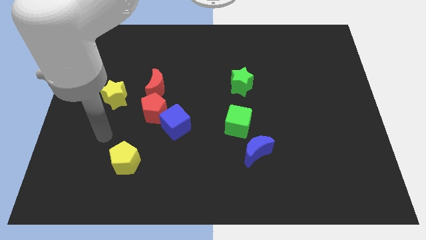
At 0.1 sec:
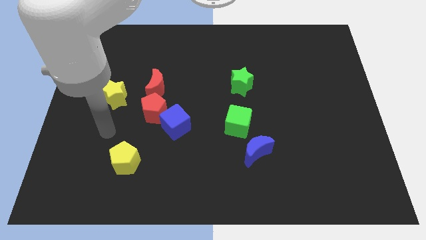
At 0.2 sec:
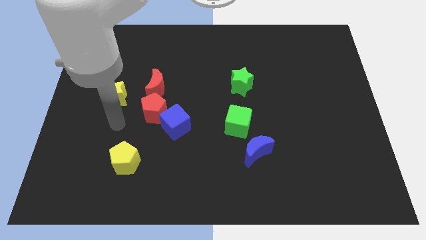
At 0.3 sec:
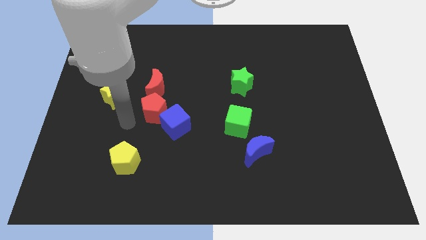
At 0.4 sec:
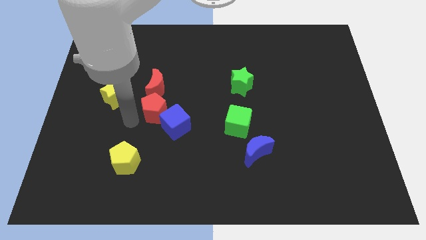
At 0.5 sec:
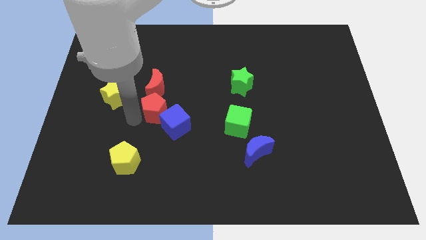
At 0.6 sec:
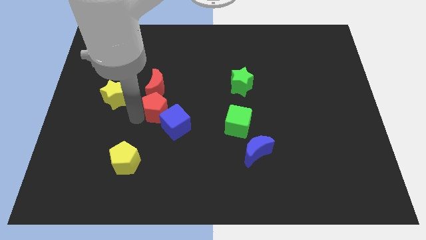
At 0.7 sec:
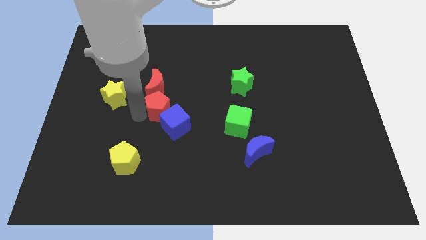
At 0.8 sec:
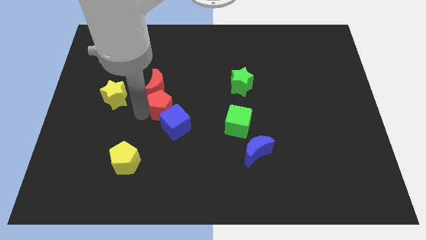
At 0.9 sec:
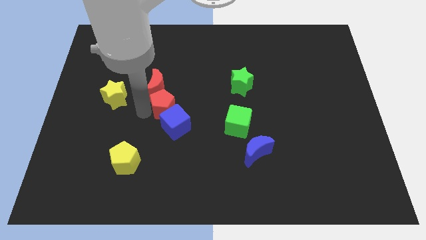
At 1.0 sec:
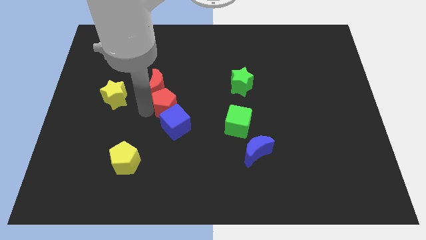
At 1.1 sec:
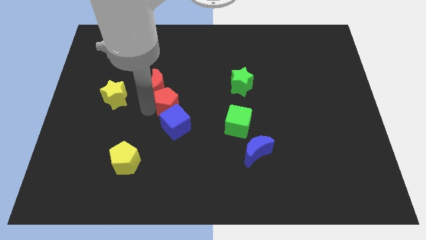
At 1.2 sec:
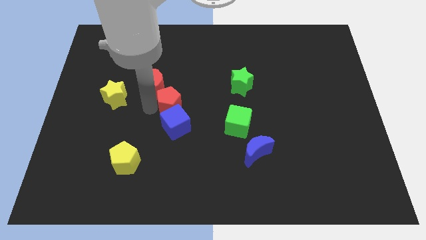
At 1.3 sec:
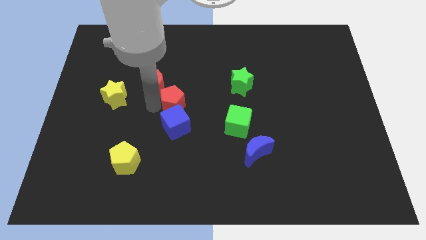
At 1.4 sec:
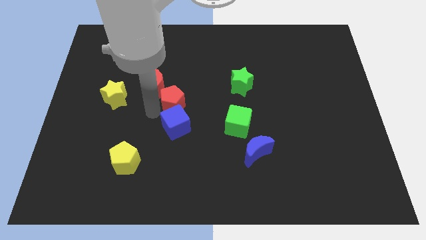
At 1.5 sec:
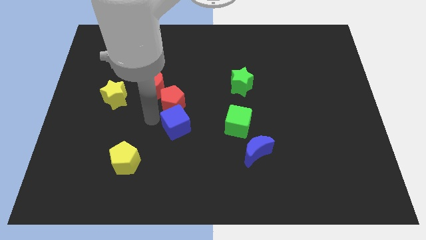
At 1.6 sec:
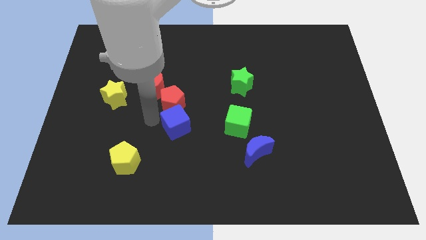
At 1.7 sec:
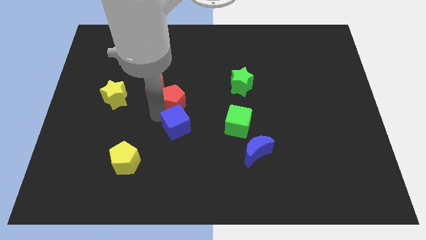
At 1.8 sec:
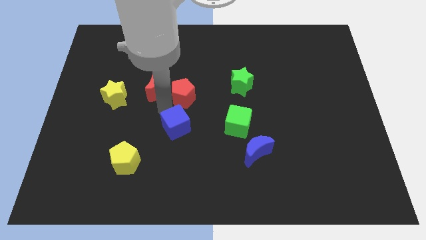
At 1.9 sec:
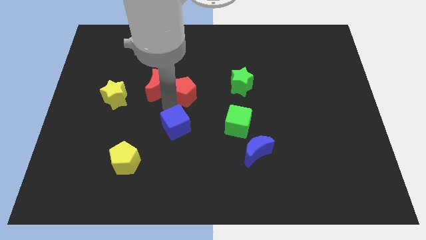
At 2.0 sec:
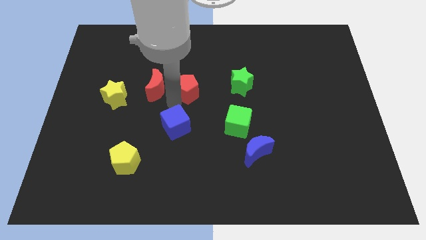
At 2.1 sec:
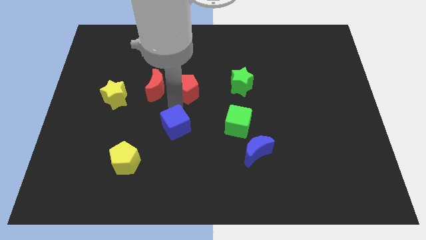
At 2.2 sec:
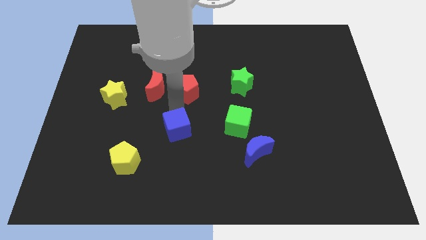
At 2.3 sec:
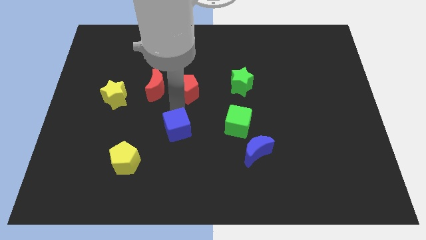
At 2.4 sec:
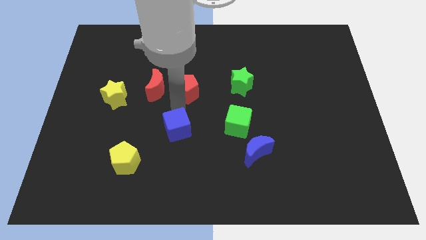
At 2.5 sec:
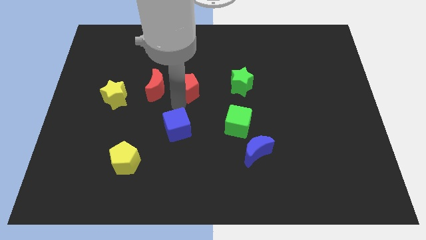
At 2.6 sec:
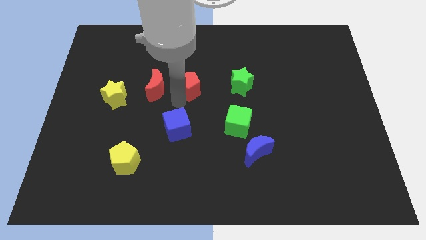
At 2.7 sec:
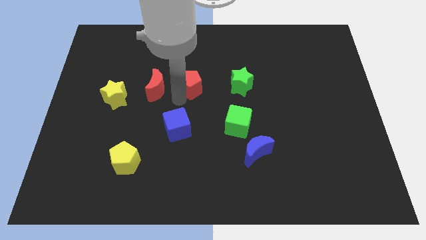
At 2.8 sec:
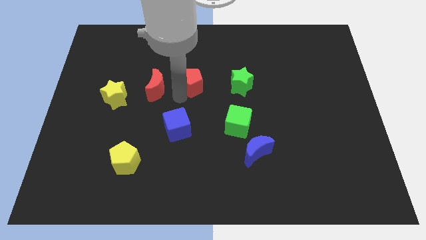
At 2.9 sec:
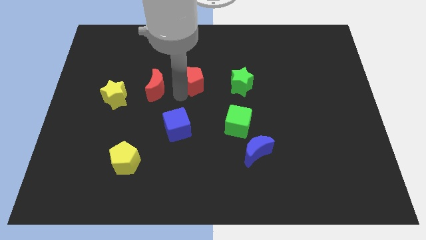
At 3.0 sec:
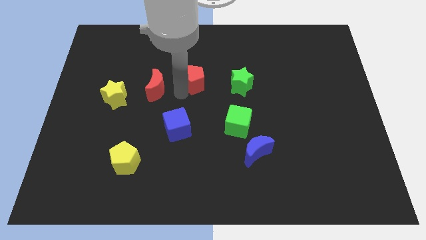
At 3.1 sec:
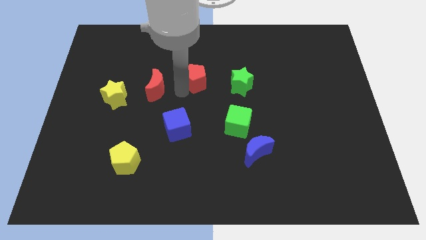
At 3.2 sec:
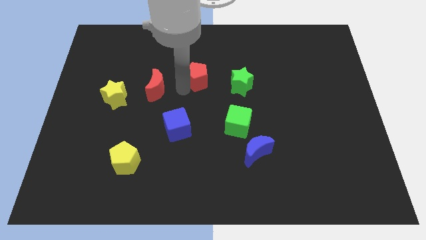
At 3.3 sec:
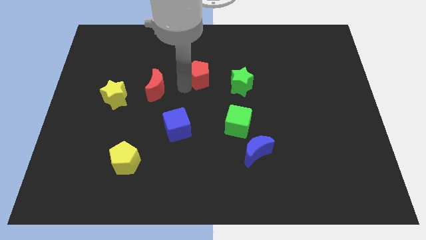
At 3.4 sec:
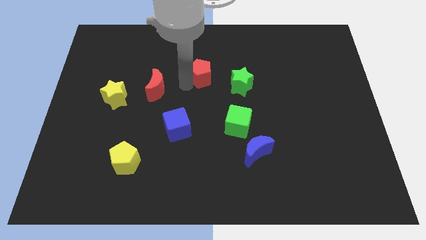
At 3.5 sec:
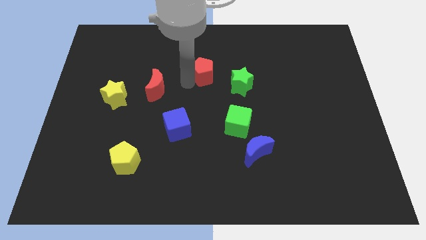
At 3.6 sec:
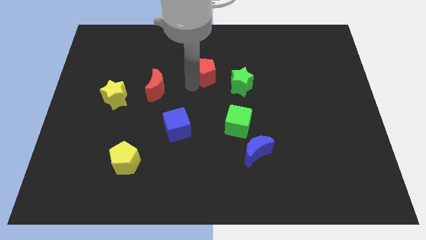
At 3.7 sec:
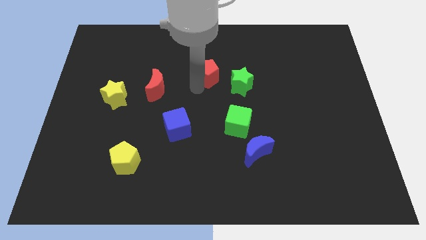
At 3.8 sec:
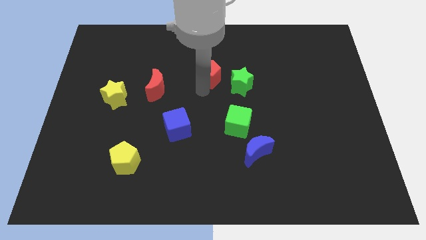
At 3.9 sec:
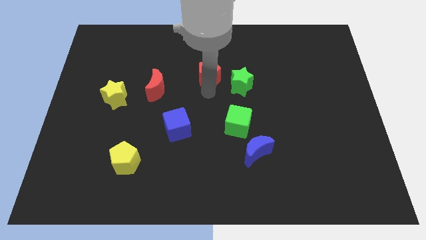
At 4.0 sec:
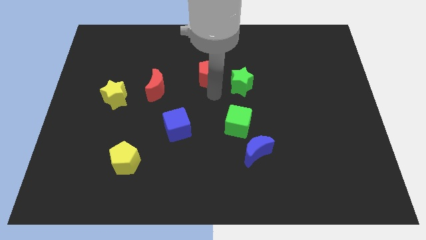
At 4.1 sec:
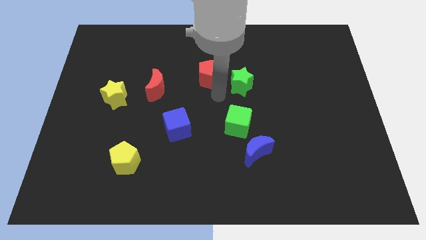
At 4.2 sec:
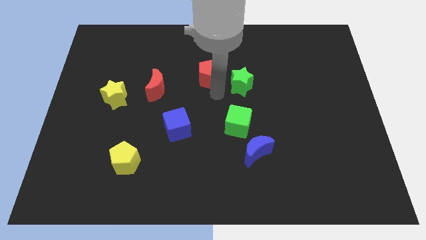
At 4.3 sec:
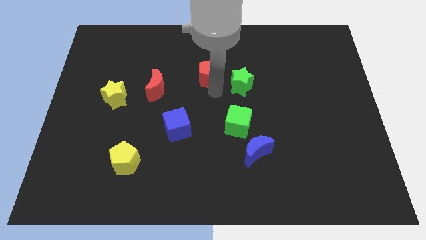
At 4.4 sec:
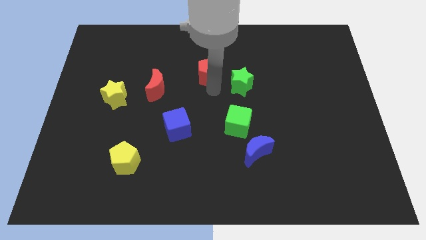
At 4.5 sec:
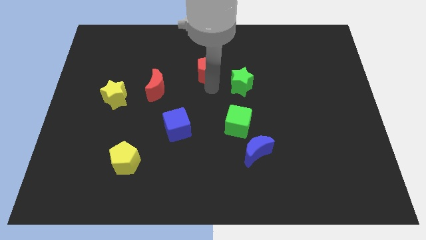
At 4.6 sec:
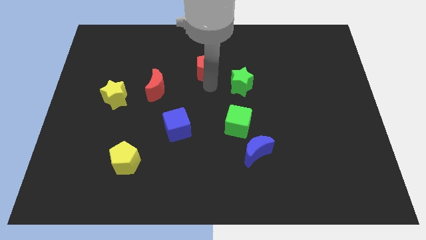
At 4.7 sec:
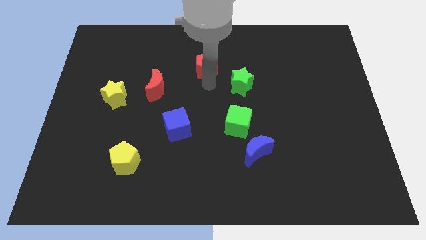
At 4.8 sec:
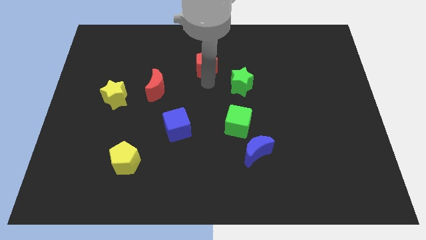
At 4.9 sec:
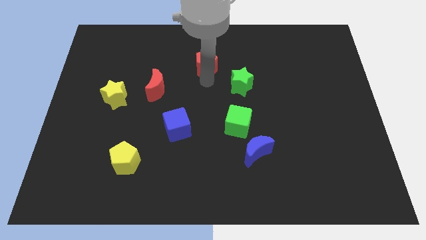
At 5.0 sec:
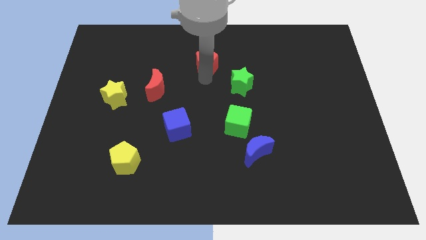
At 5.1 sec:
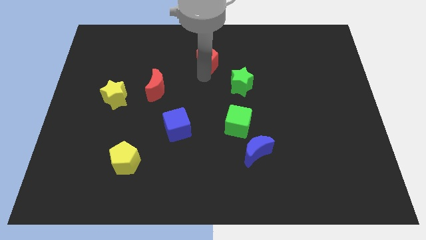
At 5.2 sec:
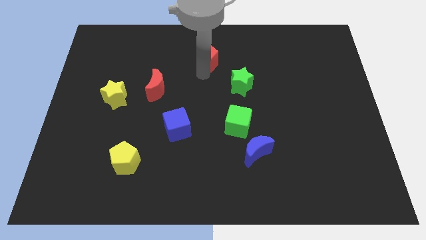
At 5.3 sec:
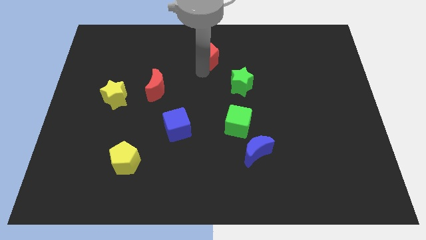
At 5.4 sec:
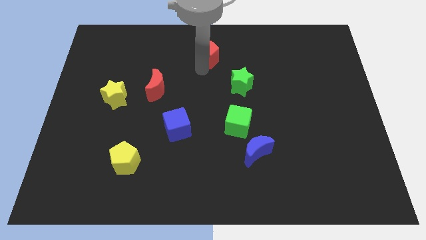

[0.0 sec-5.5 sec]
put the red pentagon to the top

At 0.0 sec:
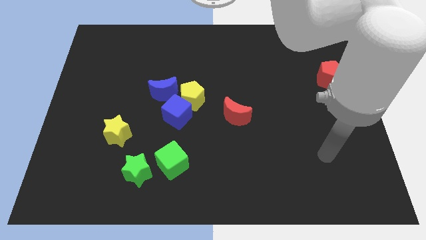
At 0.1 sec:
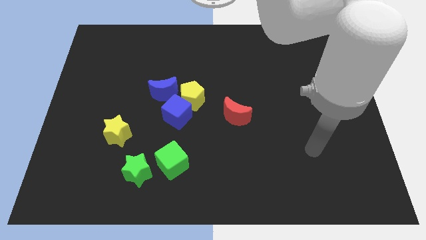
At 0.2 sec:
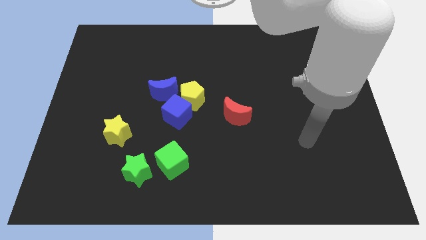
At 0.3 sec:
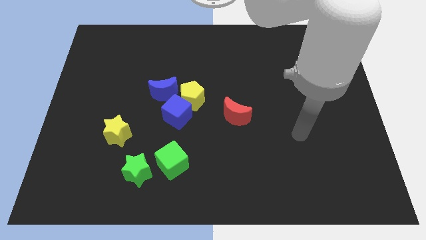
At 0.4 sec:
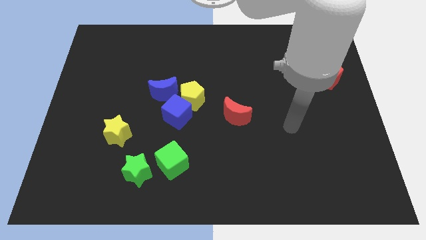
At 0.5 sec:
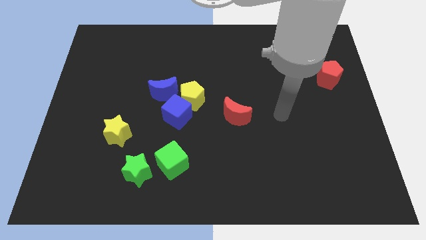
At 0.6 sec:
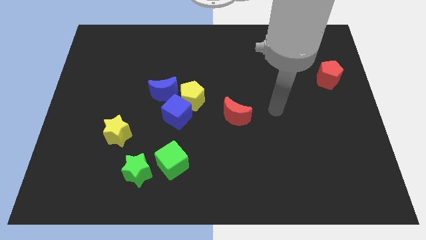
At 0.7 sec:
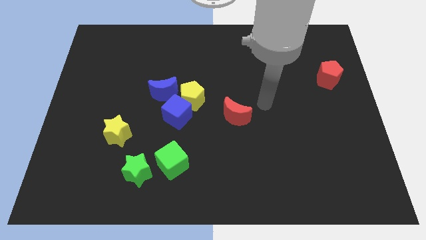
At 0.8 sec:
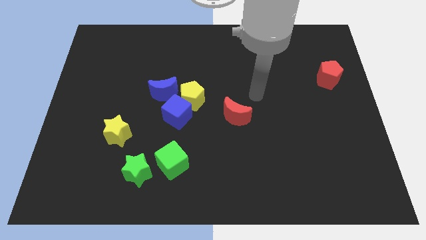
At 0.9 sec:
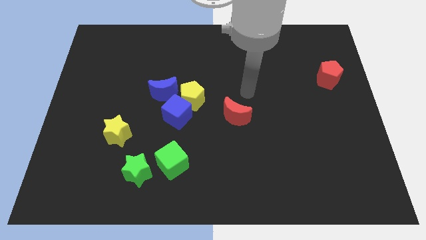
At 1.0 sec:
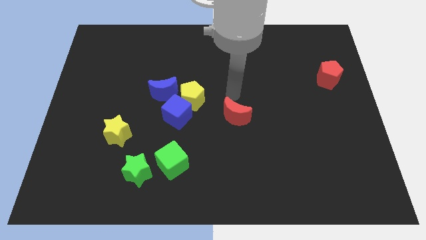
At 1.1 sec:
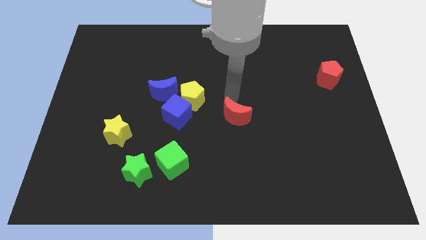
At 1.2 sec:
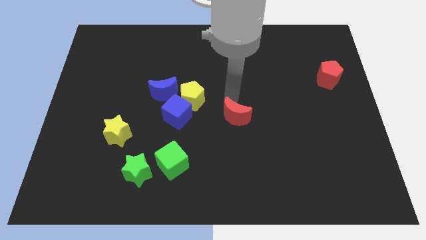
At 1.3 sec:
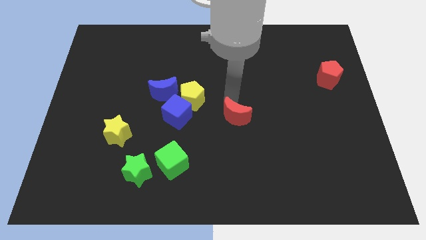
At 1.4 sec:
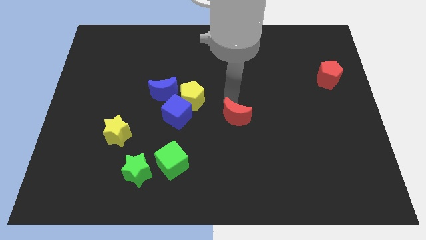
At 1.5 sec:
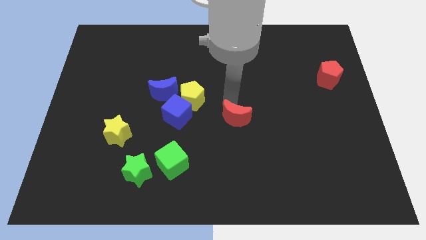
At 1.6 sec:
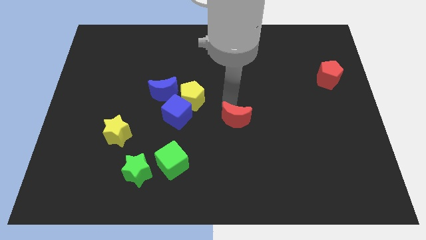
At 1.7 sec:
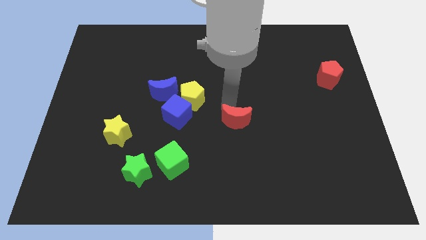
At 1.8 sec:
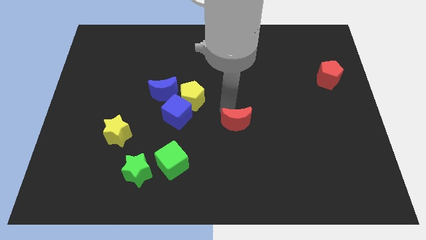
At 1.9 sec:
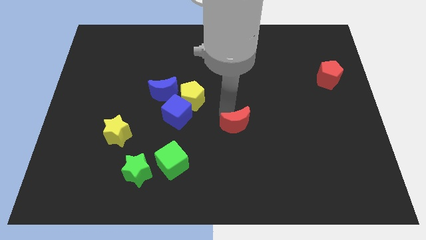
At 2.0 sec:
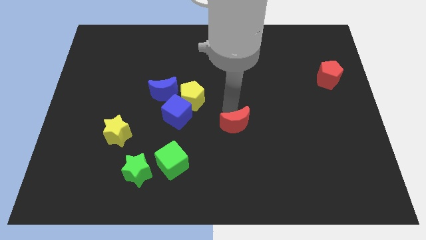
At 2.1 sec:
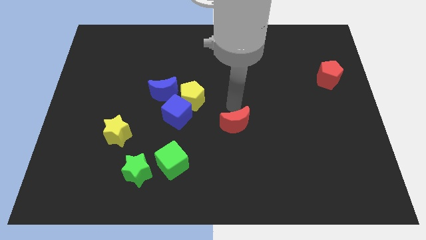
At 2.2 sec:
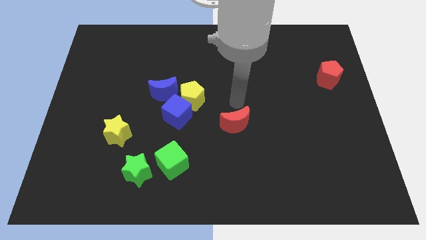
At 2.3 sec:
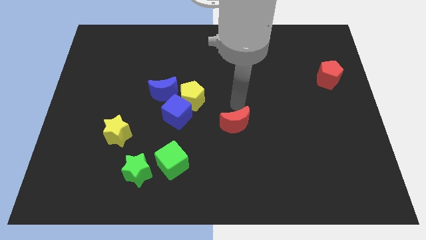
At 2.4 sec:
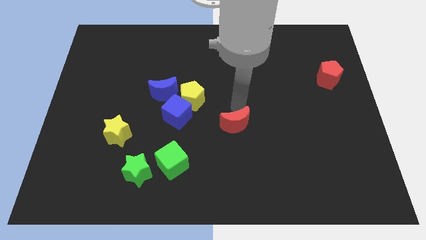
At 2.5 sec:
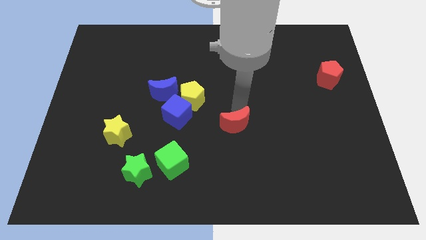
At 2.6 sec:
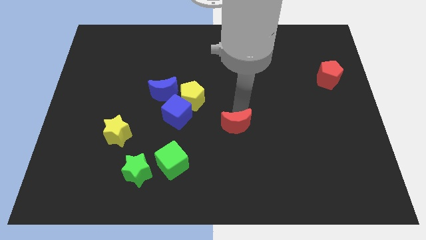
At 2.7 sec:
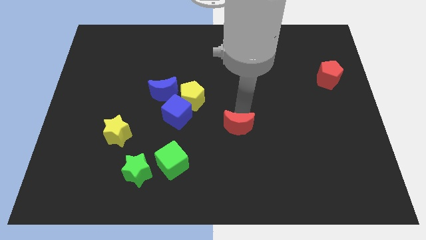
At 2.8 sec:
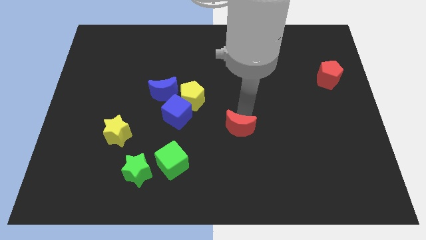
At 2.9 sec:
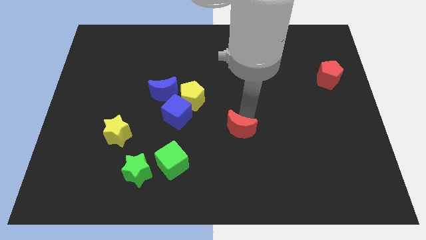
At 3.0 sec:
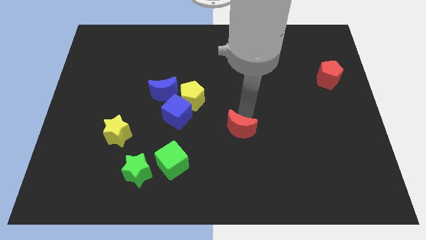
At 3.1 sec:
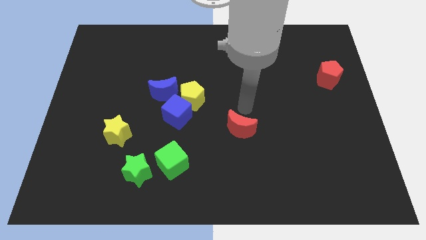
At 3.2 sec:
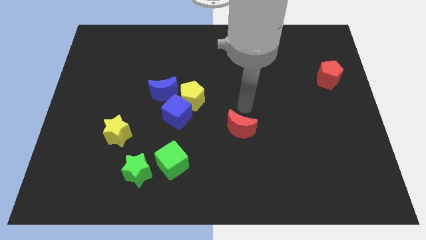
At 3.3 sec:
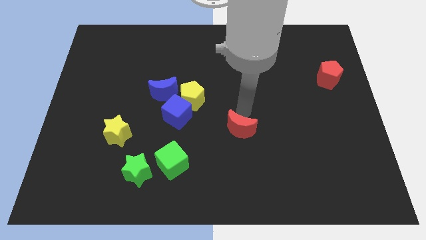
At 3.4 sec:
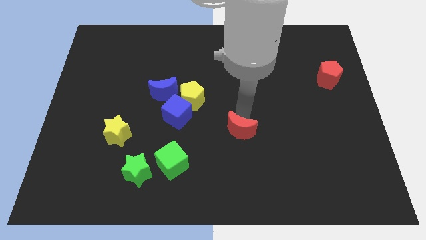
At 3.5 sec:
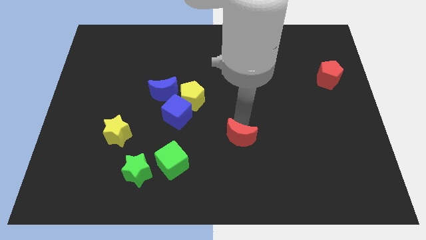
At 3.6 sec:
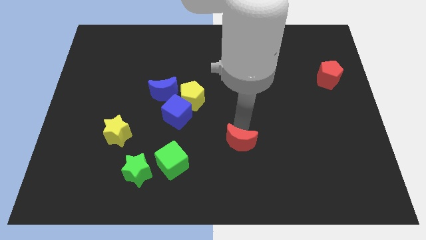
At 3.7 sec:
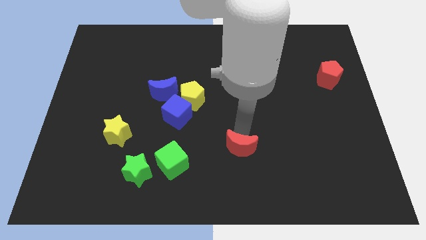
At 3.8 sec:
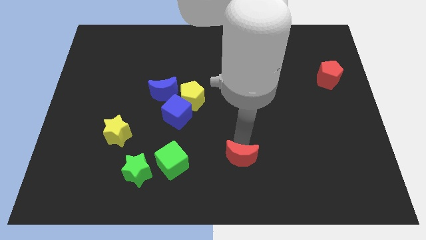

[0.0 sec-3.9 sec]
move the red moon to the bottom
